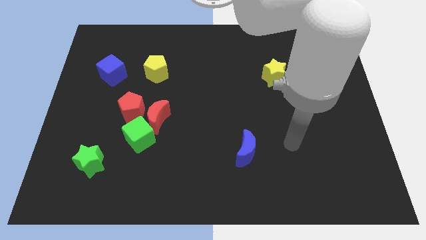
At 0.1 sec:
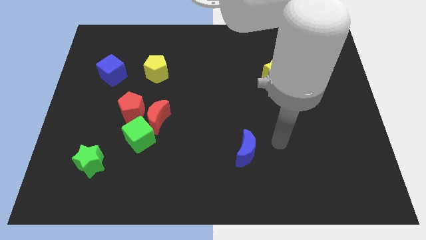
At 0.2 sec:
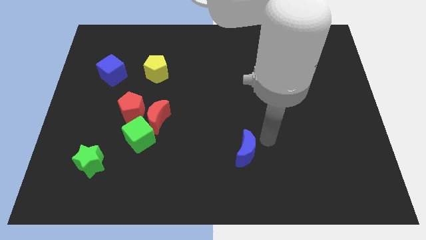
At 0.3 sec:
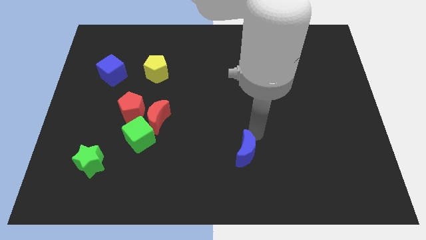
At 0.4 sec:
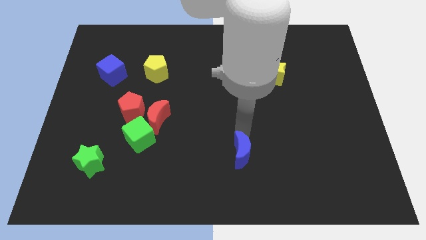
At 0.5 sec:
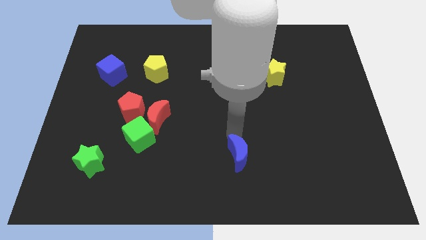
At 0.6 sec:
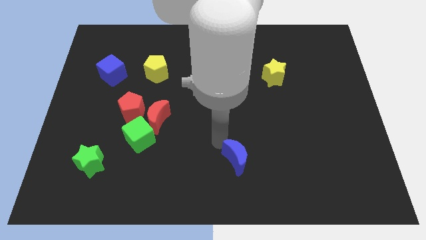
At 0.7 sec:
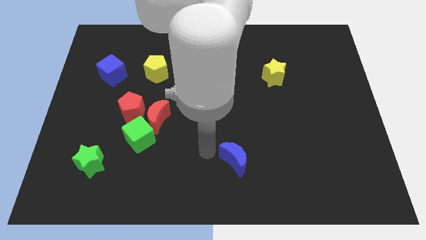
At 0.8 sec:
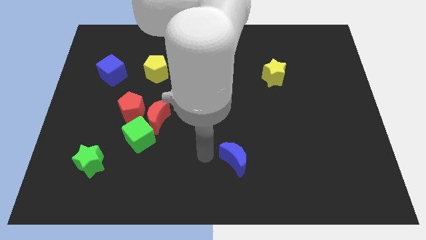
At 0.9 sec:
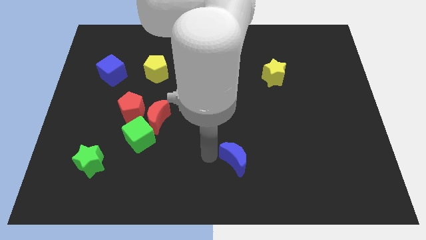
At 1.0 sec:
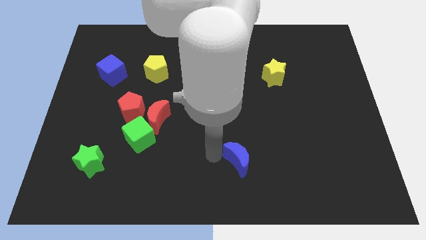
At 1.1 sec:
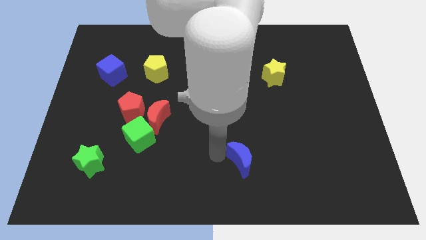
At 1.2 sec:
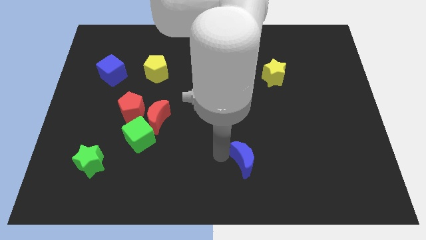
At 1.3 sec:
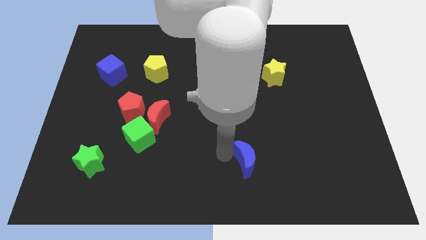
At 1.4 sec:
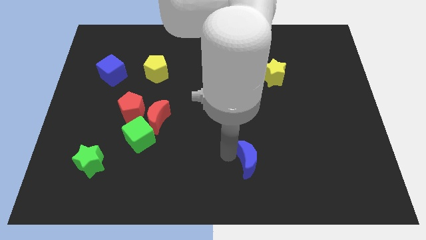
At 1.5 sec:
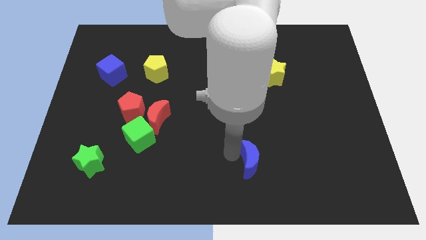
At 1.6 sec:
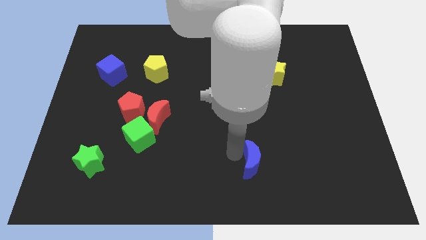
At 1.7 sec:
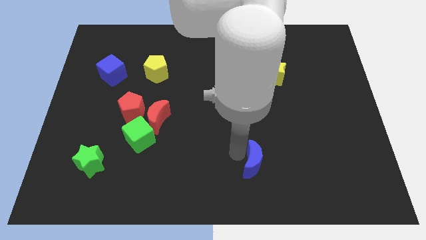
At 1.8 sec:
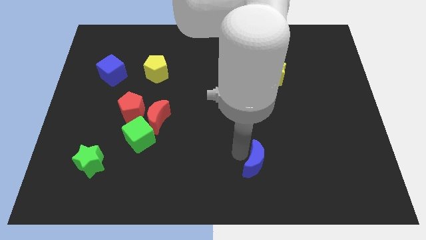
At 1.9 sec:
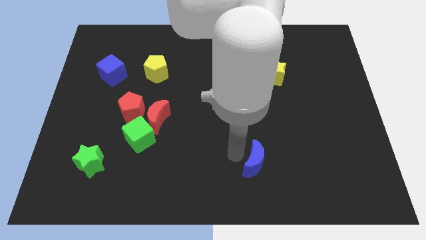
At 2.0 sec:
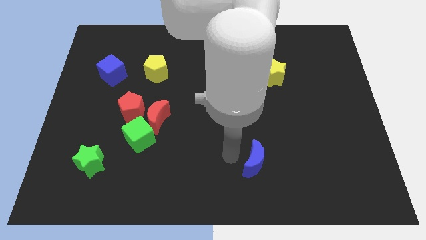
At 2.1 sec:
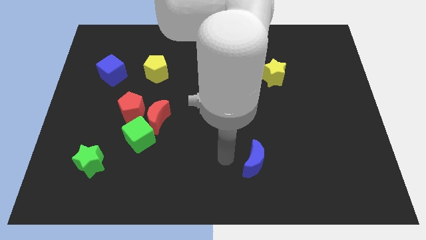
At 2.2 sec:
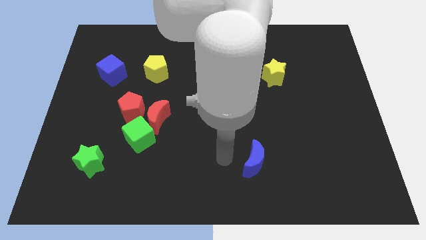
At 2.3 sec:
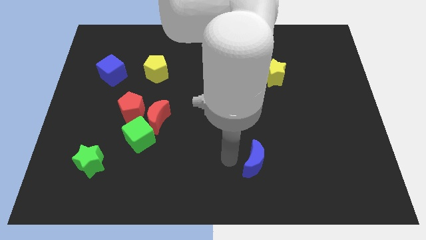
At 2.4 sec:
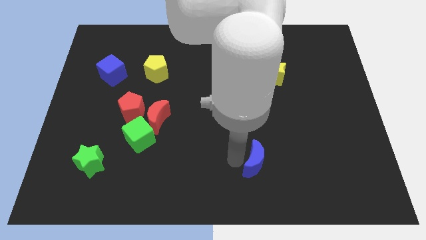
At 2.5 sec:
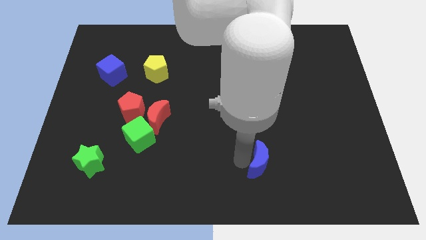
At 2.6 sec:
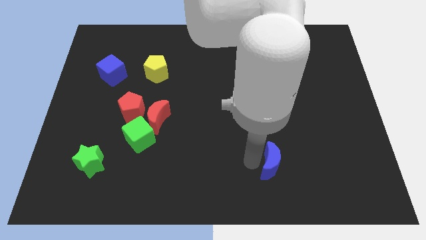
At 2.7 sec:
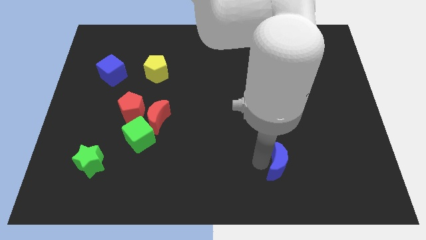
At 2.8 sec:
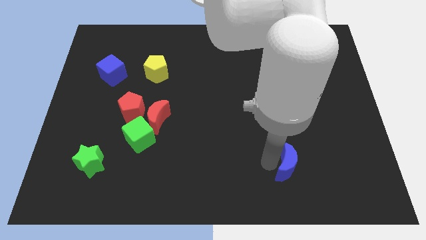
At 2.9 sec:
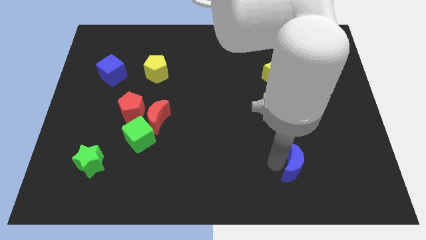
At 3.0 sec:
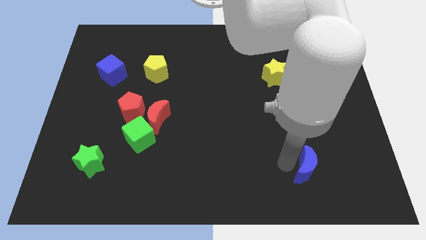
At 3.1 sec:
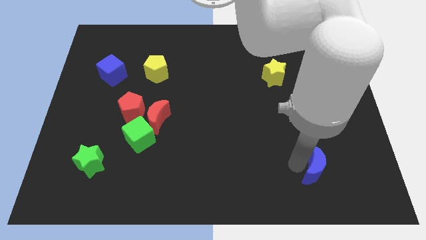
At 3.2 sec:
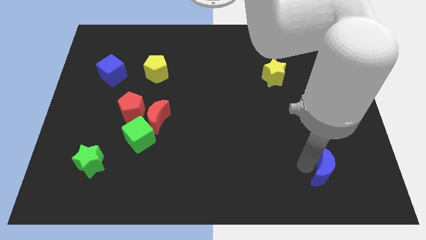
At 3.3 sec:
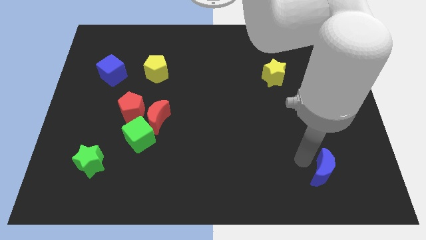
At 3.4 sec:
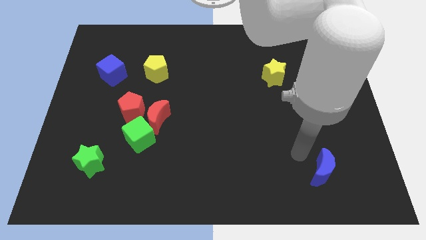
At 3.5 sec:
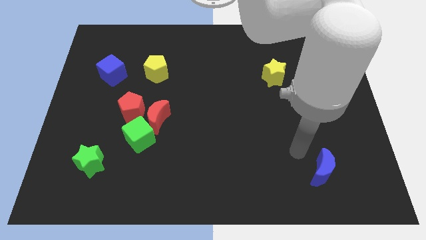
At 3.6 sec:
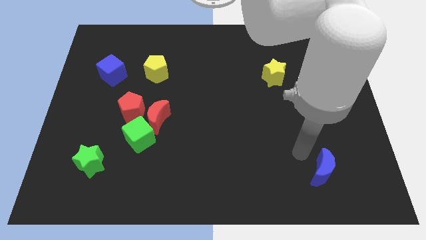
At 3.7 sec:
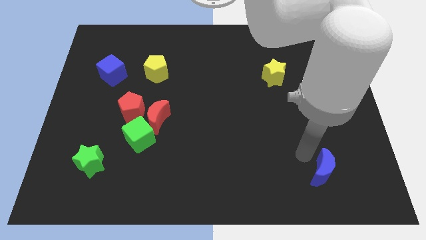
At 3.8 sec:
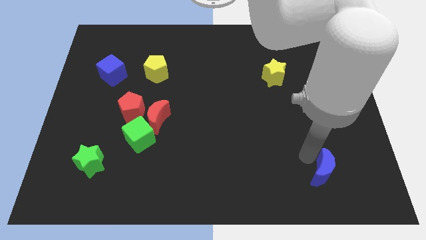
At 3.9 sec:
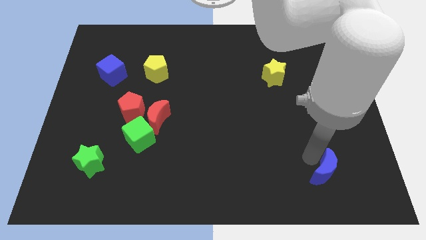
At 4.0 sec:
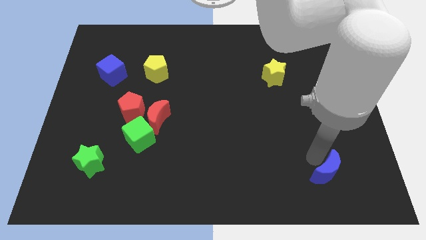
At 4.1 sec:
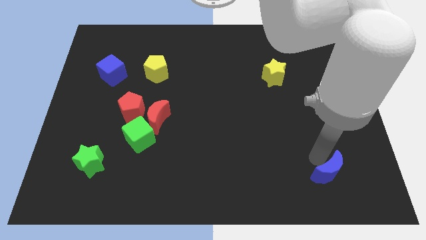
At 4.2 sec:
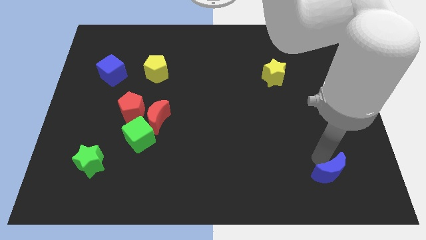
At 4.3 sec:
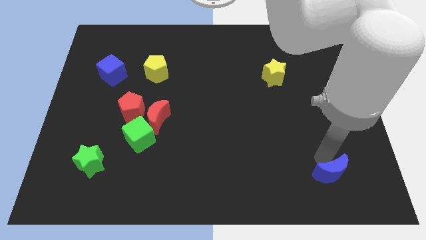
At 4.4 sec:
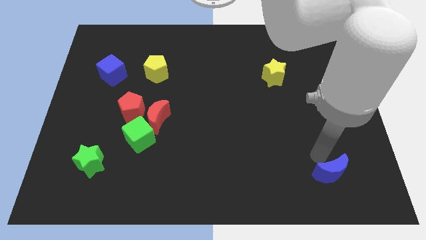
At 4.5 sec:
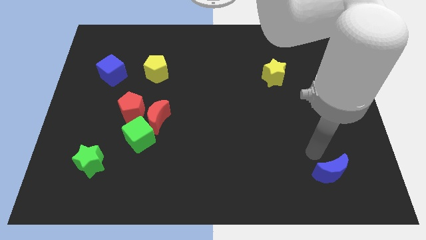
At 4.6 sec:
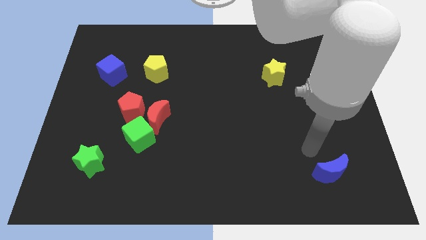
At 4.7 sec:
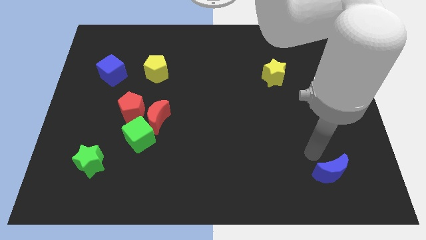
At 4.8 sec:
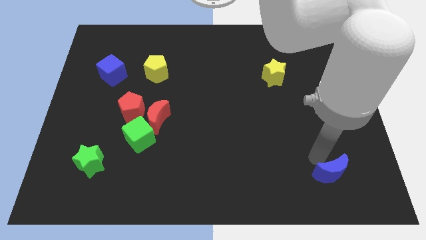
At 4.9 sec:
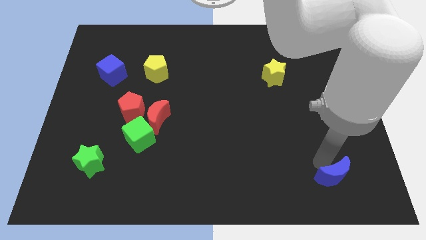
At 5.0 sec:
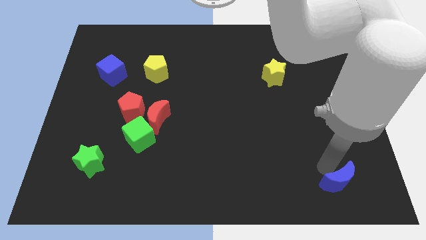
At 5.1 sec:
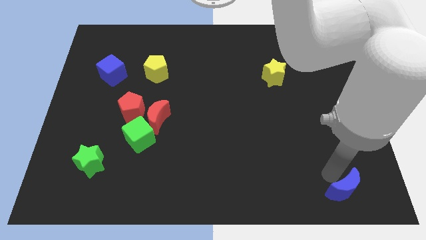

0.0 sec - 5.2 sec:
move the blue moon to the bottom right corner

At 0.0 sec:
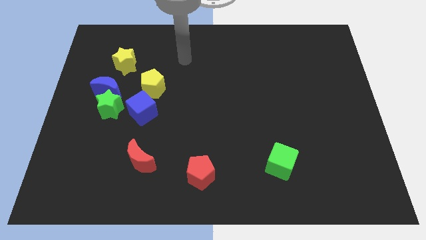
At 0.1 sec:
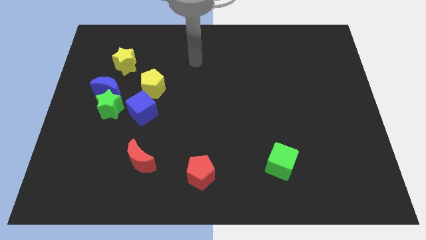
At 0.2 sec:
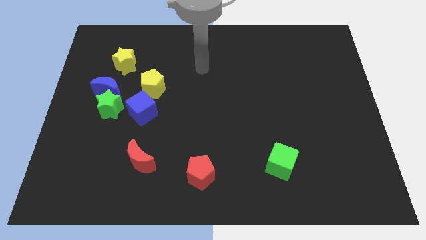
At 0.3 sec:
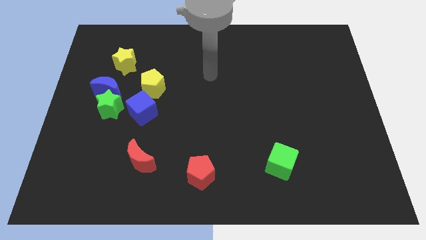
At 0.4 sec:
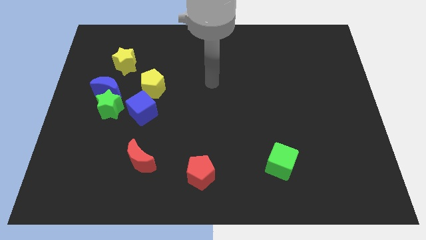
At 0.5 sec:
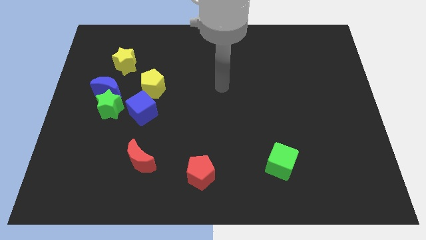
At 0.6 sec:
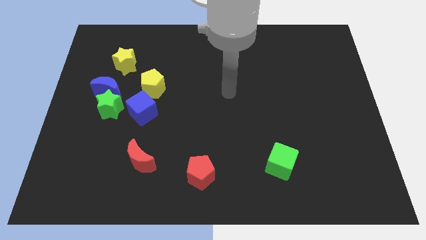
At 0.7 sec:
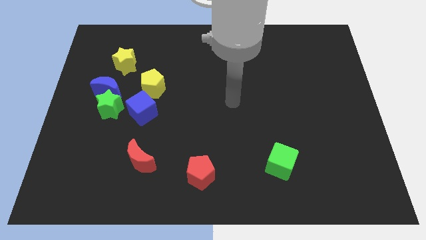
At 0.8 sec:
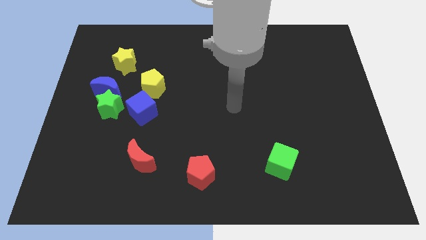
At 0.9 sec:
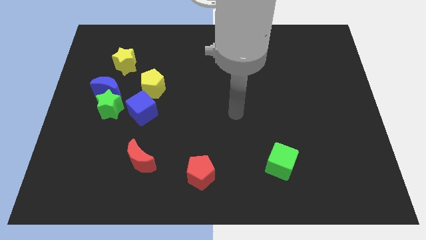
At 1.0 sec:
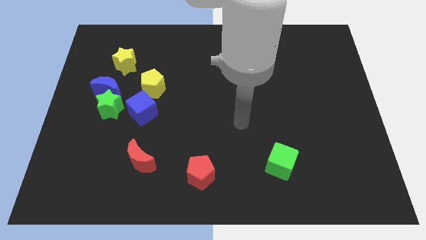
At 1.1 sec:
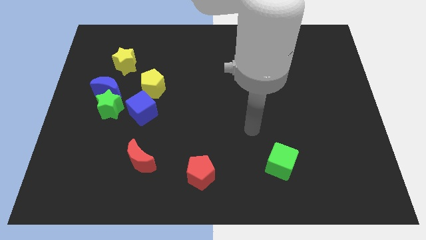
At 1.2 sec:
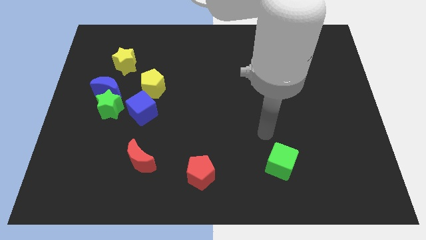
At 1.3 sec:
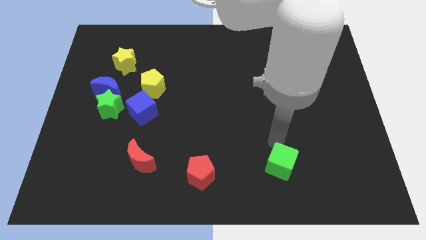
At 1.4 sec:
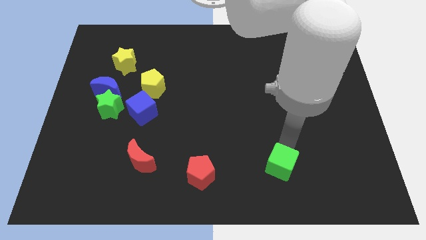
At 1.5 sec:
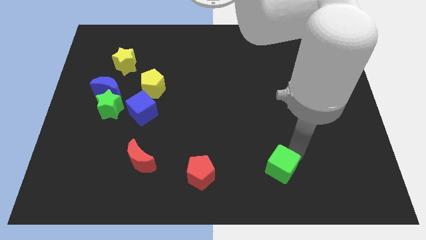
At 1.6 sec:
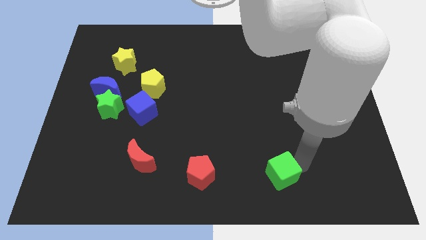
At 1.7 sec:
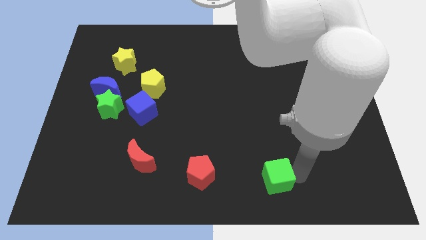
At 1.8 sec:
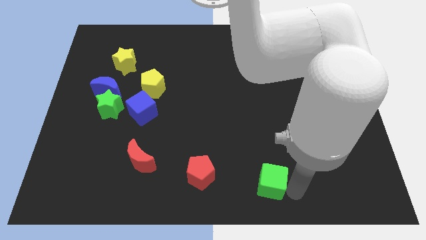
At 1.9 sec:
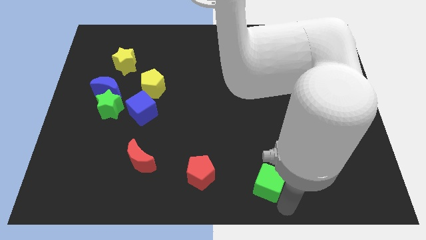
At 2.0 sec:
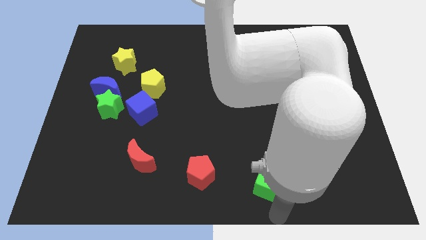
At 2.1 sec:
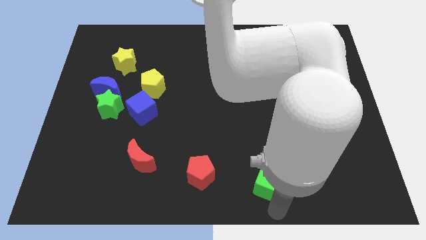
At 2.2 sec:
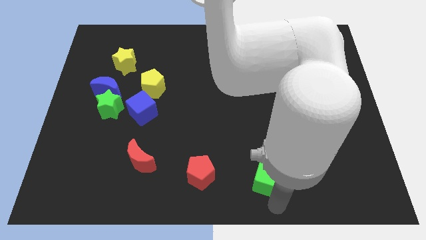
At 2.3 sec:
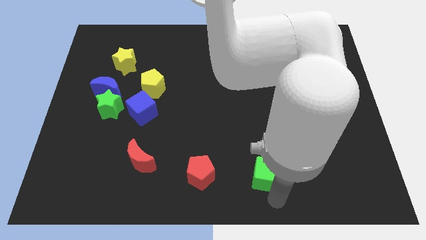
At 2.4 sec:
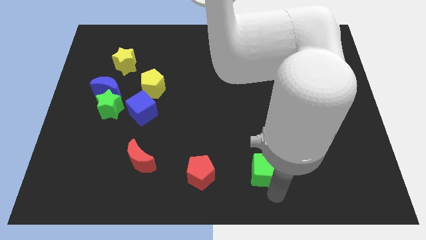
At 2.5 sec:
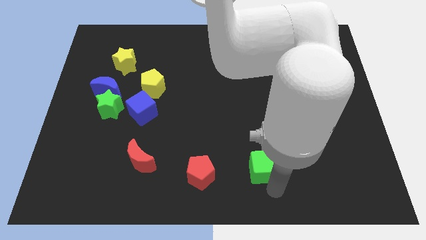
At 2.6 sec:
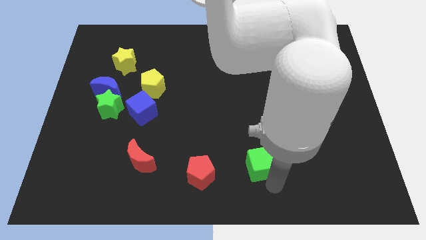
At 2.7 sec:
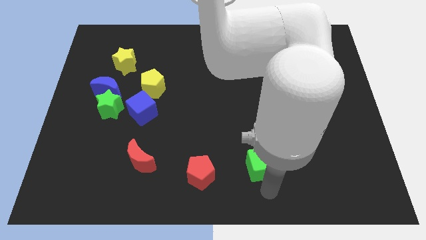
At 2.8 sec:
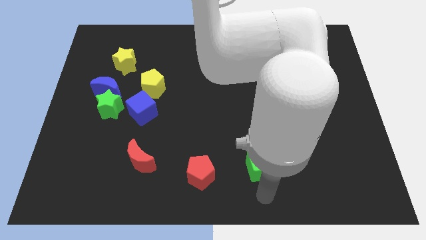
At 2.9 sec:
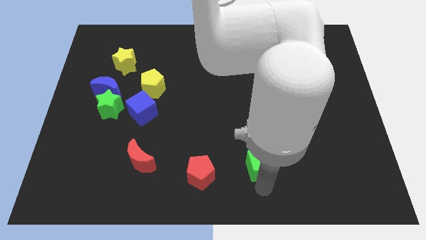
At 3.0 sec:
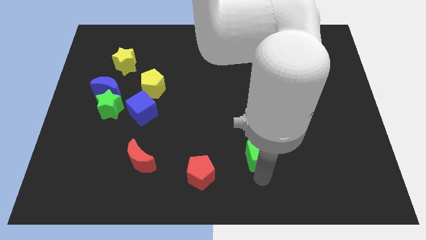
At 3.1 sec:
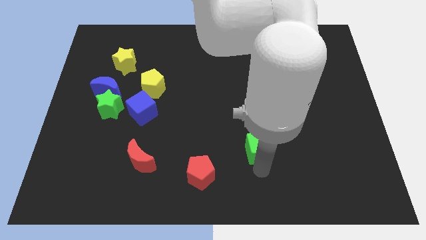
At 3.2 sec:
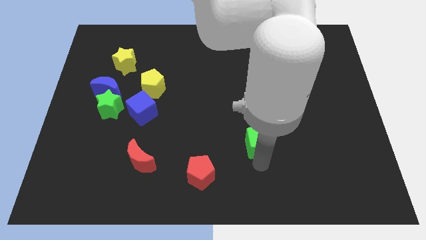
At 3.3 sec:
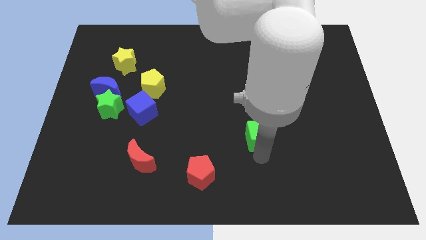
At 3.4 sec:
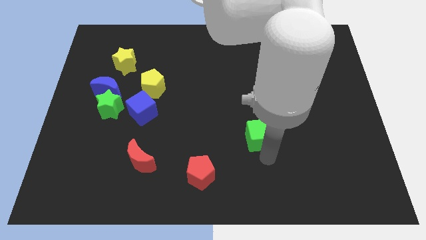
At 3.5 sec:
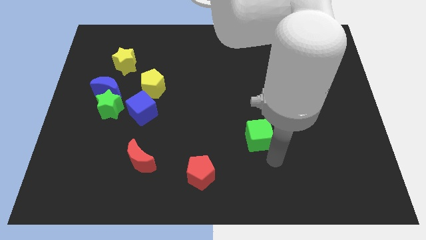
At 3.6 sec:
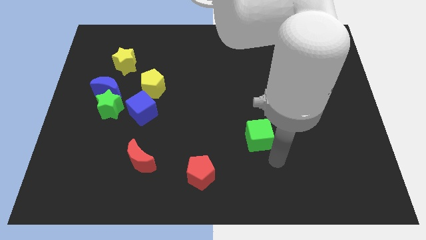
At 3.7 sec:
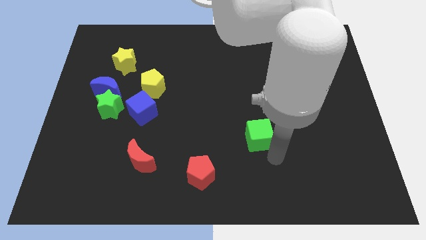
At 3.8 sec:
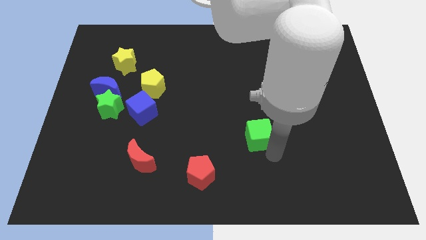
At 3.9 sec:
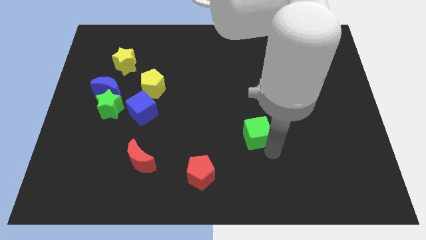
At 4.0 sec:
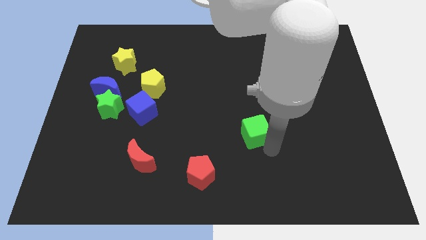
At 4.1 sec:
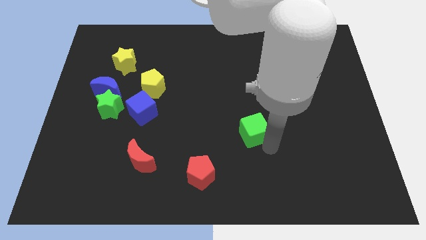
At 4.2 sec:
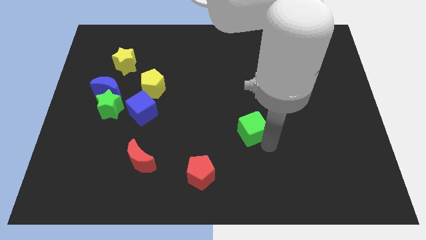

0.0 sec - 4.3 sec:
slide the green cube to the middle
